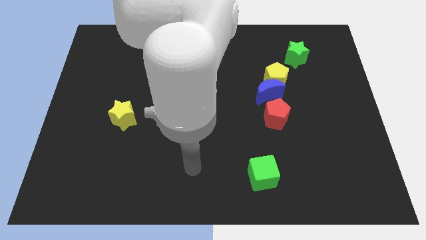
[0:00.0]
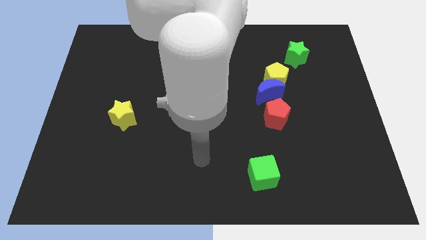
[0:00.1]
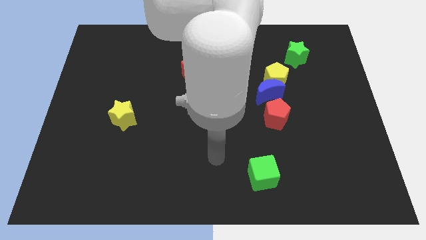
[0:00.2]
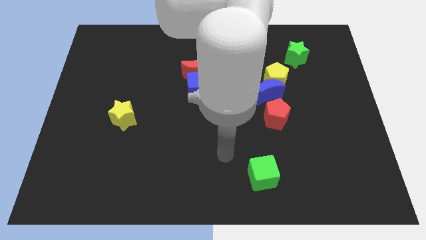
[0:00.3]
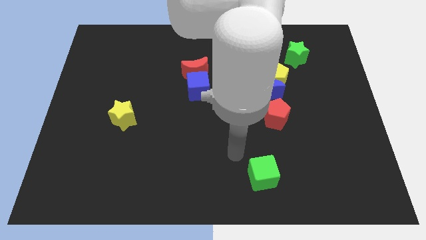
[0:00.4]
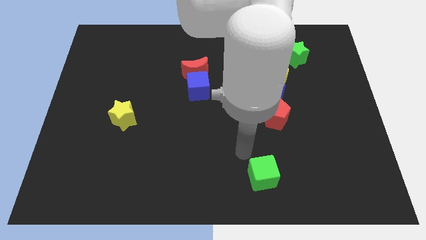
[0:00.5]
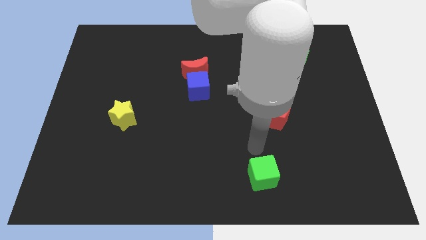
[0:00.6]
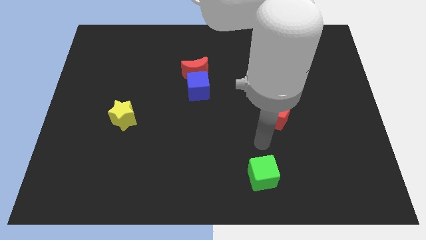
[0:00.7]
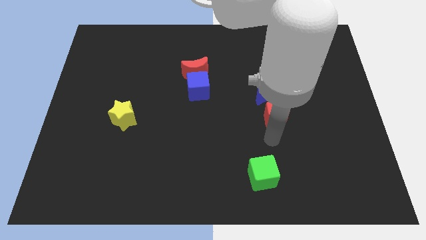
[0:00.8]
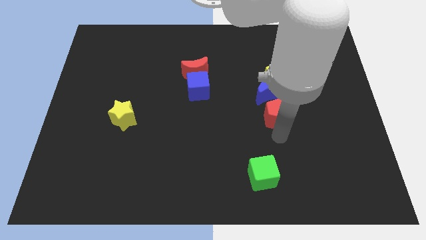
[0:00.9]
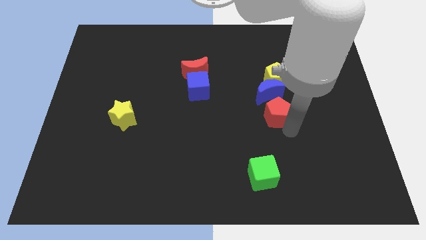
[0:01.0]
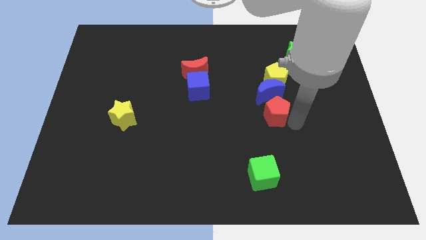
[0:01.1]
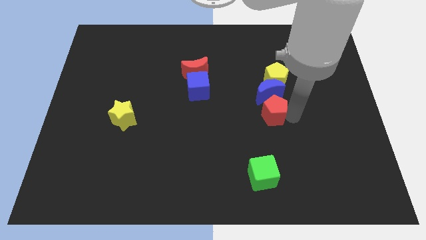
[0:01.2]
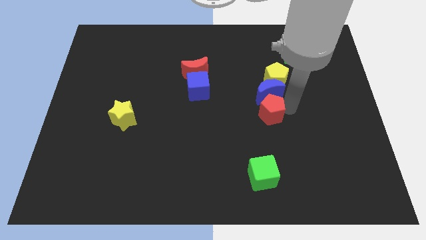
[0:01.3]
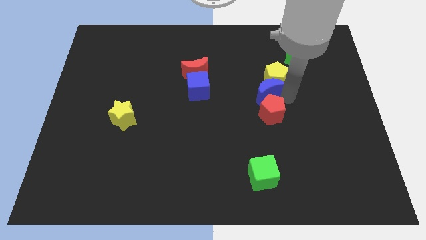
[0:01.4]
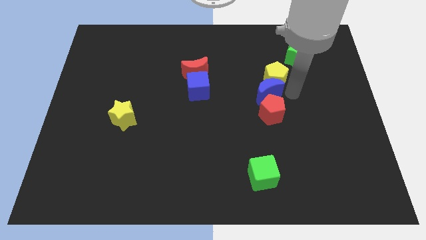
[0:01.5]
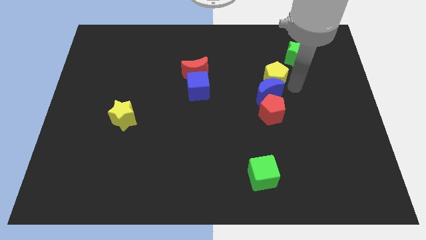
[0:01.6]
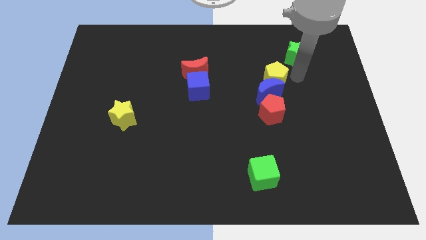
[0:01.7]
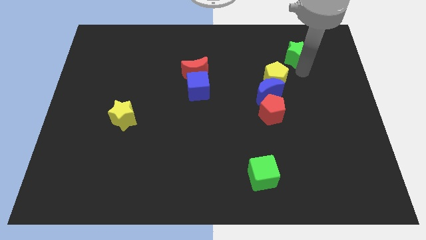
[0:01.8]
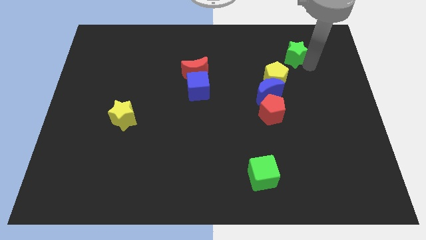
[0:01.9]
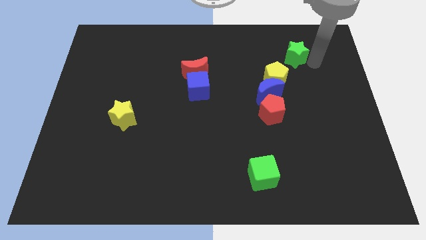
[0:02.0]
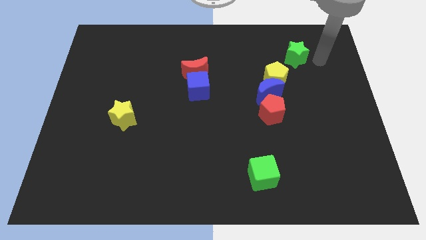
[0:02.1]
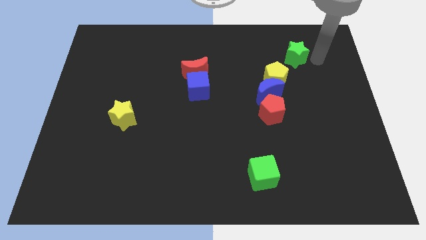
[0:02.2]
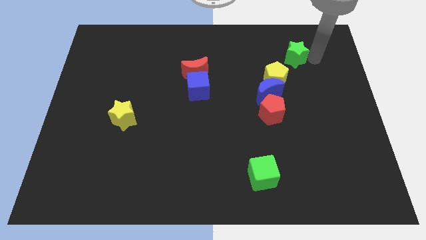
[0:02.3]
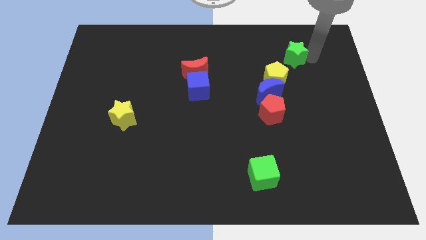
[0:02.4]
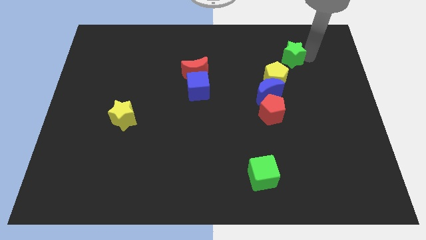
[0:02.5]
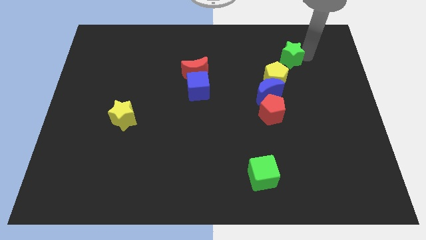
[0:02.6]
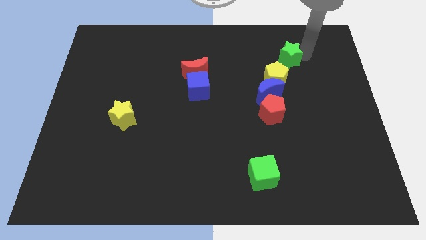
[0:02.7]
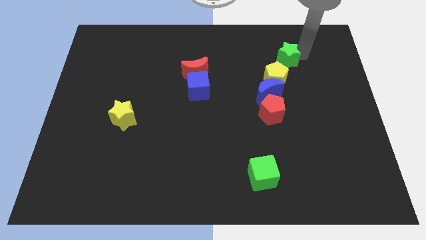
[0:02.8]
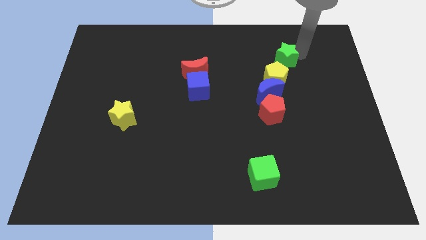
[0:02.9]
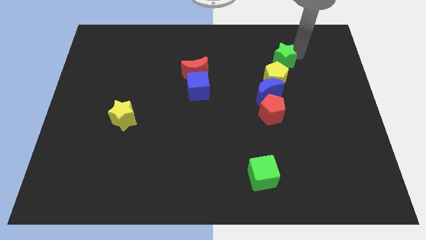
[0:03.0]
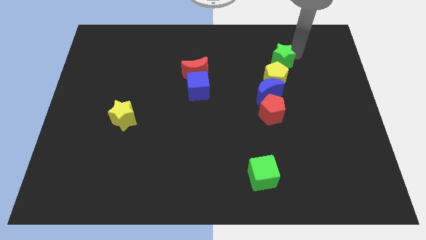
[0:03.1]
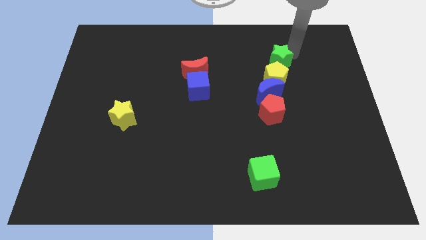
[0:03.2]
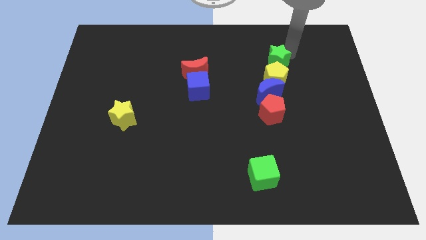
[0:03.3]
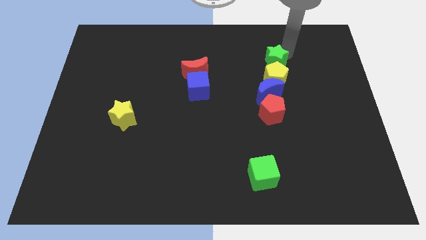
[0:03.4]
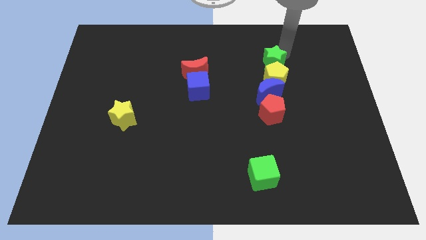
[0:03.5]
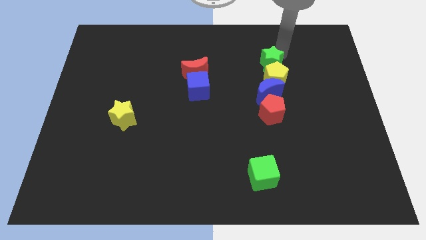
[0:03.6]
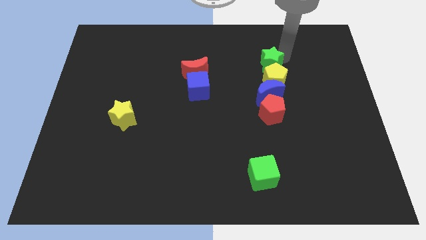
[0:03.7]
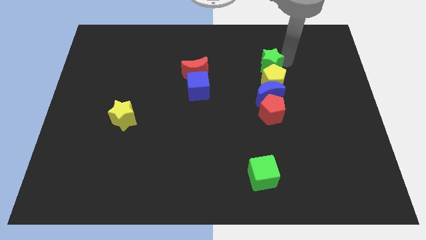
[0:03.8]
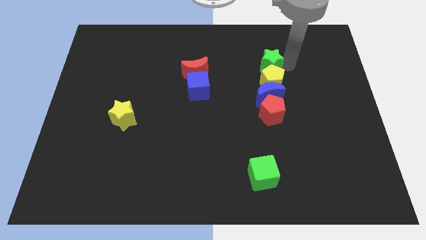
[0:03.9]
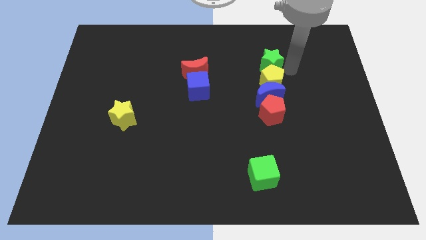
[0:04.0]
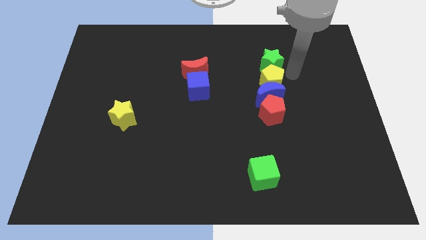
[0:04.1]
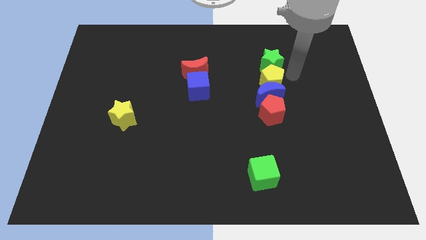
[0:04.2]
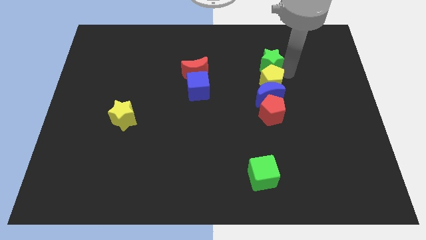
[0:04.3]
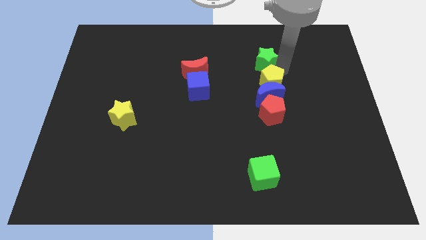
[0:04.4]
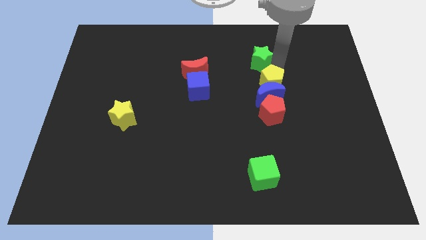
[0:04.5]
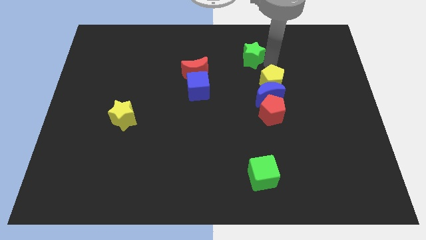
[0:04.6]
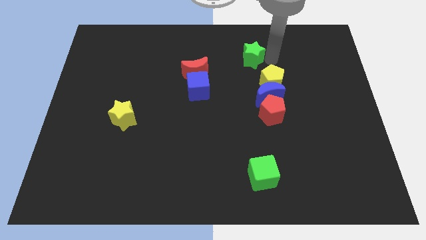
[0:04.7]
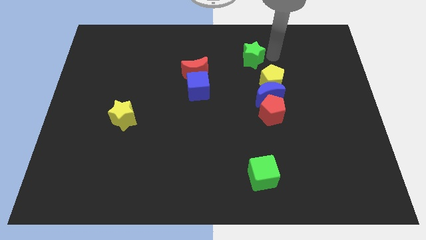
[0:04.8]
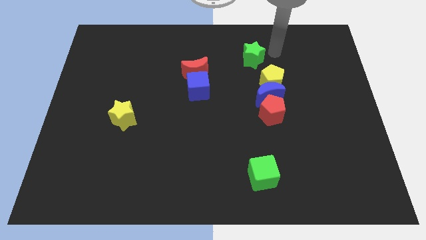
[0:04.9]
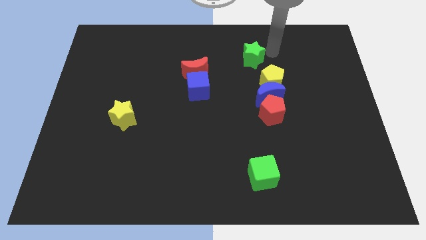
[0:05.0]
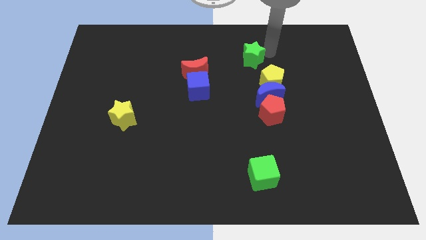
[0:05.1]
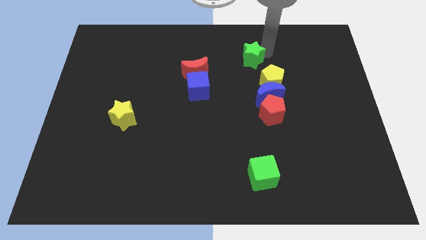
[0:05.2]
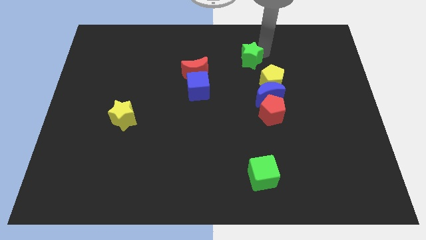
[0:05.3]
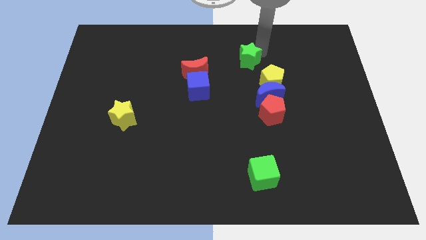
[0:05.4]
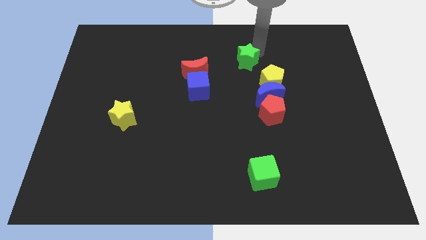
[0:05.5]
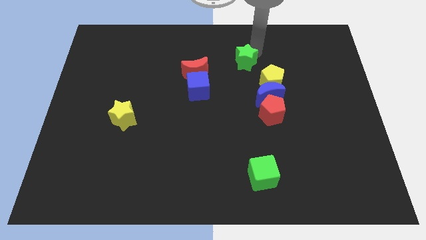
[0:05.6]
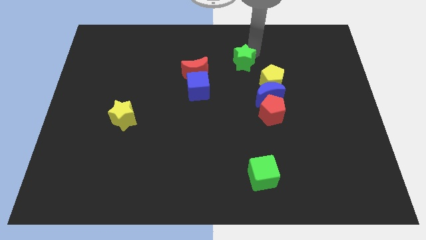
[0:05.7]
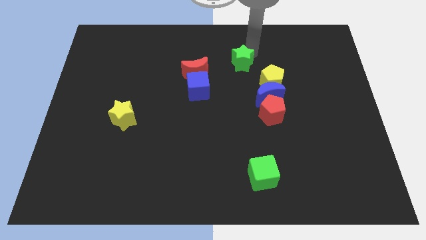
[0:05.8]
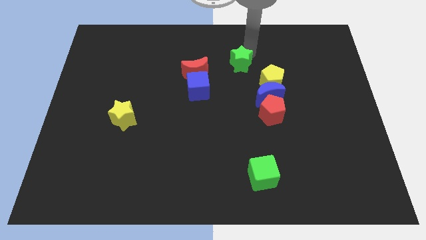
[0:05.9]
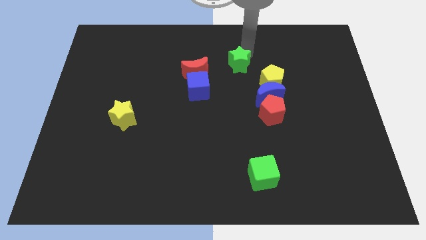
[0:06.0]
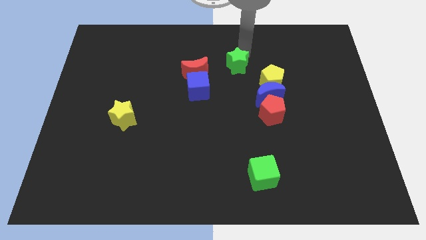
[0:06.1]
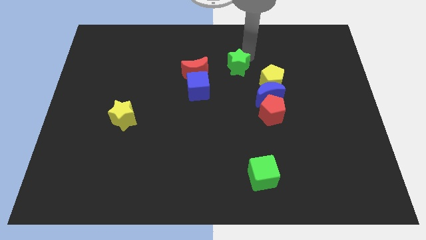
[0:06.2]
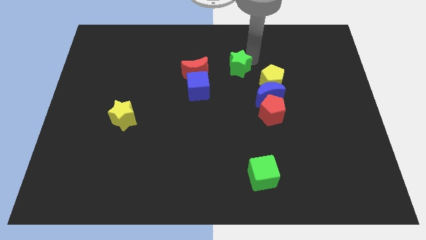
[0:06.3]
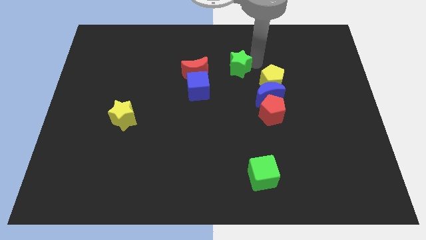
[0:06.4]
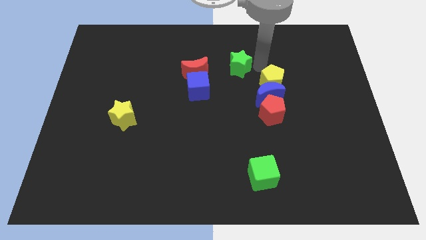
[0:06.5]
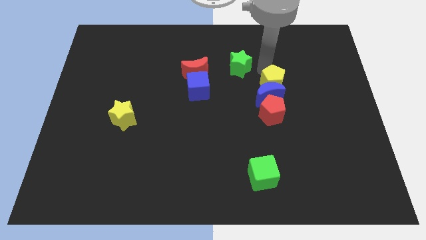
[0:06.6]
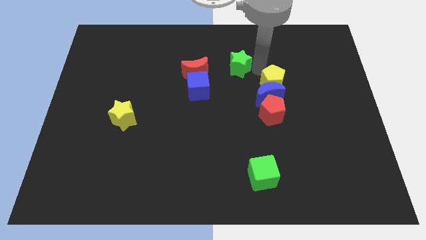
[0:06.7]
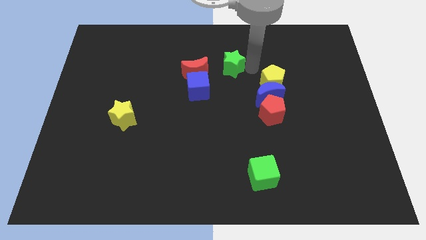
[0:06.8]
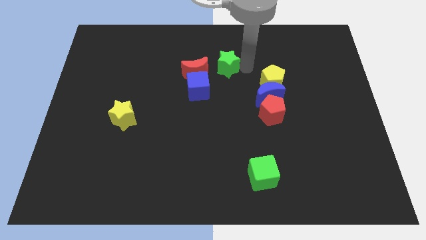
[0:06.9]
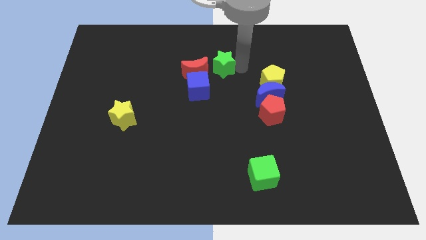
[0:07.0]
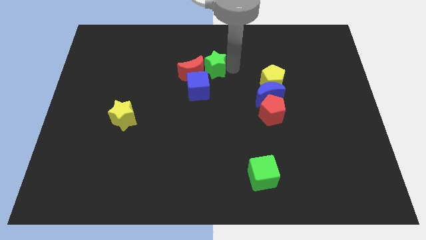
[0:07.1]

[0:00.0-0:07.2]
slide the green star left

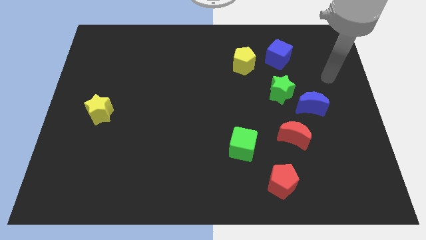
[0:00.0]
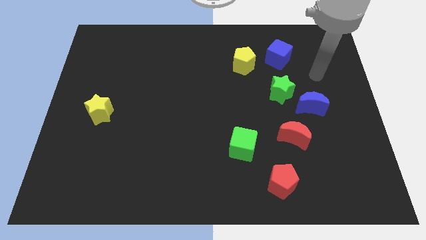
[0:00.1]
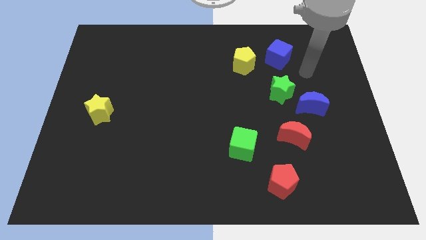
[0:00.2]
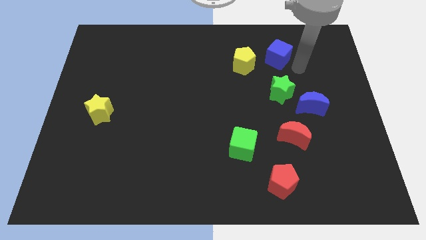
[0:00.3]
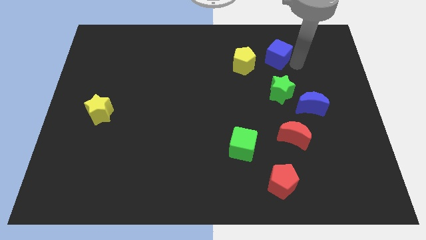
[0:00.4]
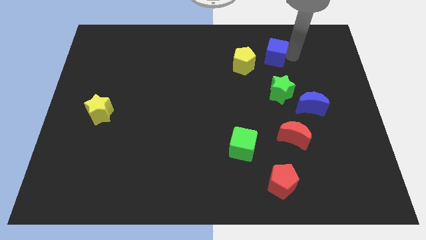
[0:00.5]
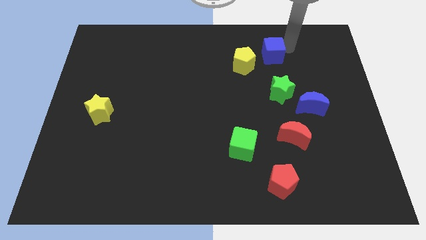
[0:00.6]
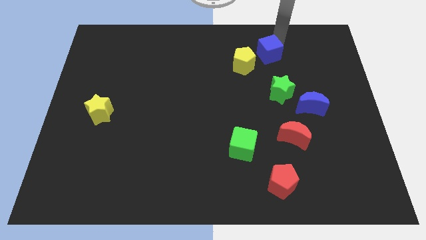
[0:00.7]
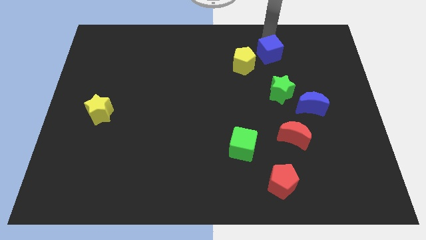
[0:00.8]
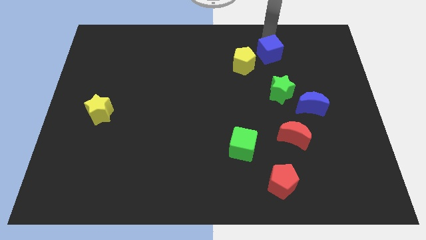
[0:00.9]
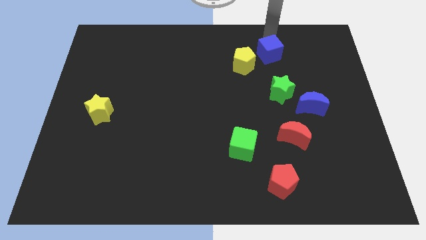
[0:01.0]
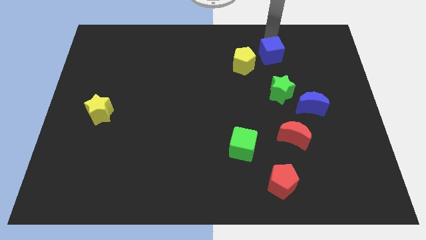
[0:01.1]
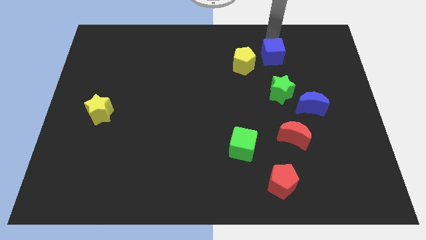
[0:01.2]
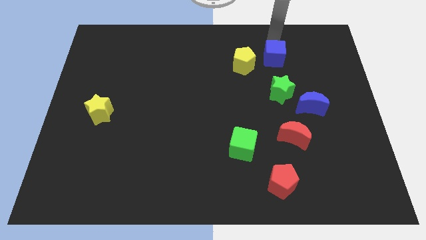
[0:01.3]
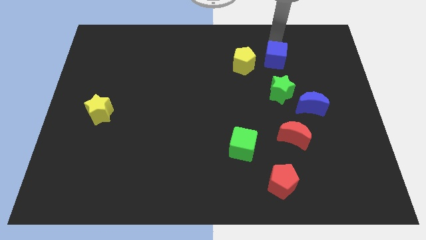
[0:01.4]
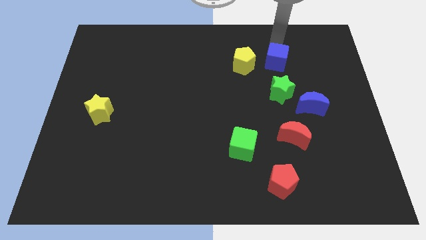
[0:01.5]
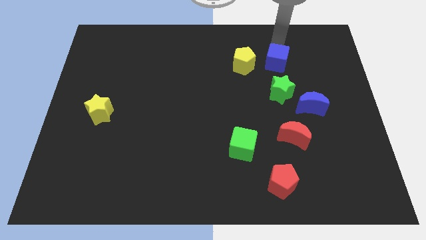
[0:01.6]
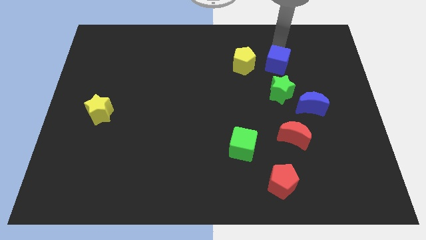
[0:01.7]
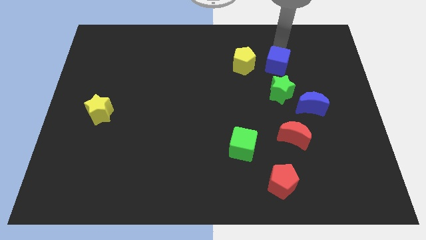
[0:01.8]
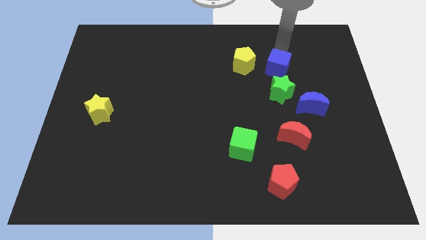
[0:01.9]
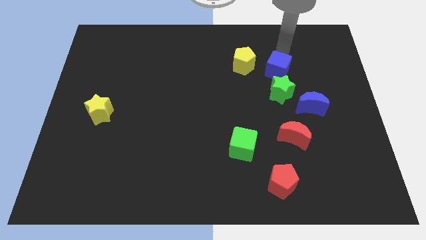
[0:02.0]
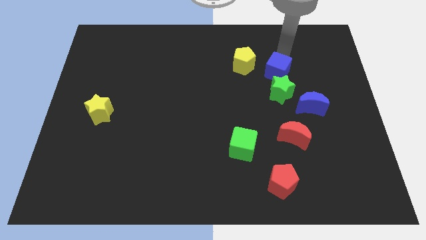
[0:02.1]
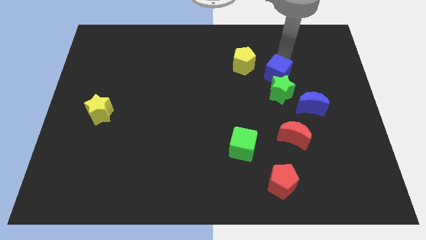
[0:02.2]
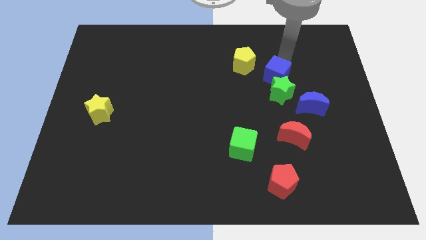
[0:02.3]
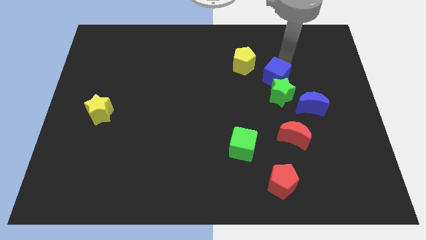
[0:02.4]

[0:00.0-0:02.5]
slightly push the blue cube down
